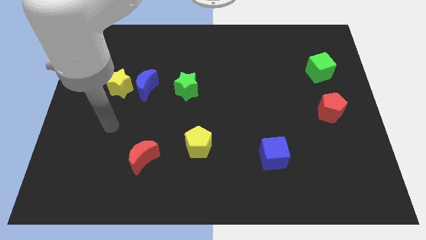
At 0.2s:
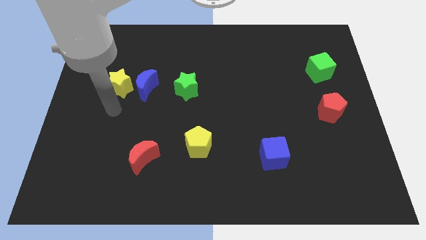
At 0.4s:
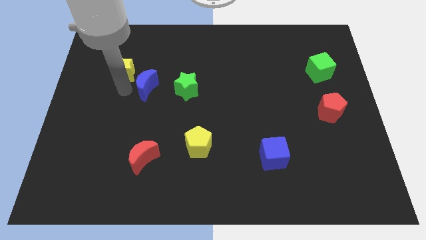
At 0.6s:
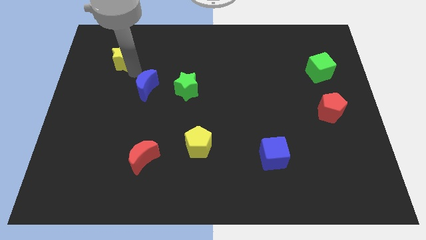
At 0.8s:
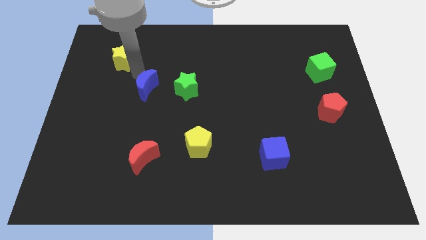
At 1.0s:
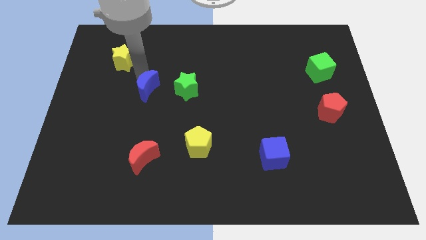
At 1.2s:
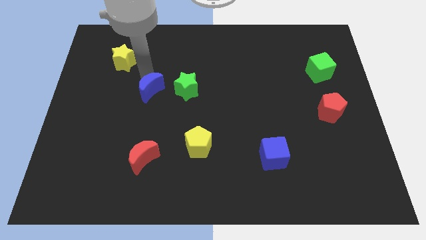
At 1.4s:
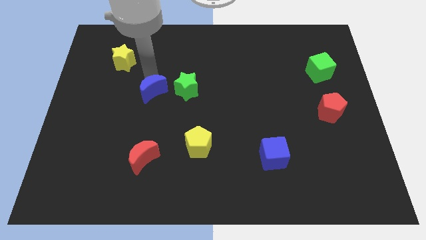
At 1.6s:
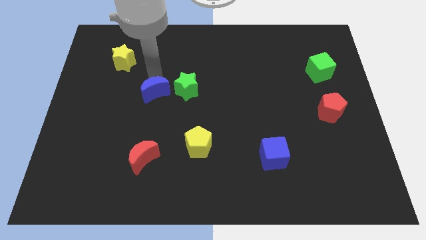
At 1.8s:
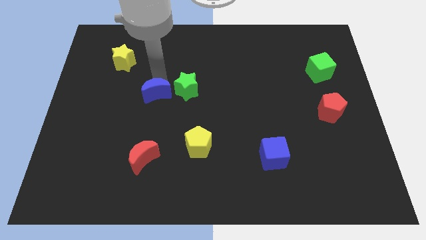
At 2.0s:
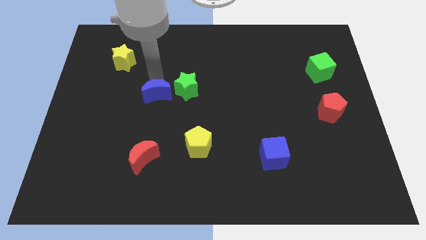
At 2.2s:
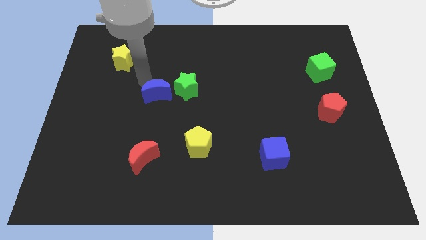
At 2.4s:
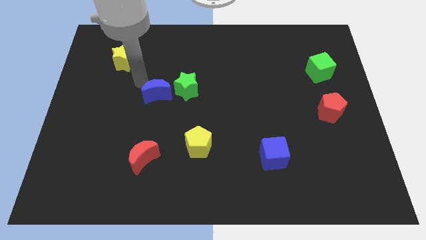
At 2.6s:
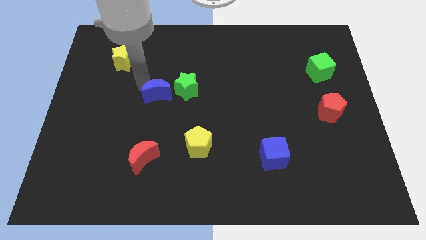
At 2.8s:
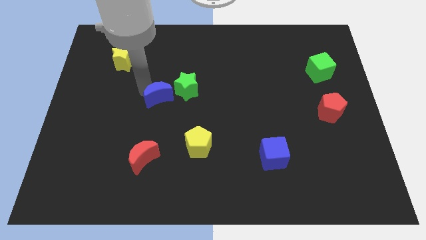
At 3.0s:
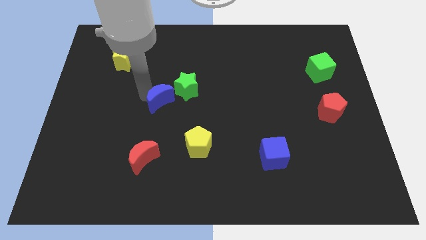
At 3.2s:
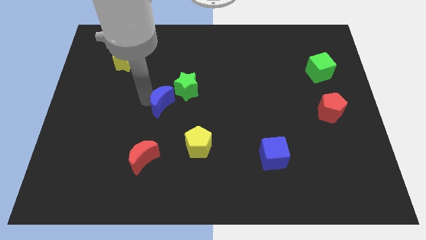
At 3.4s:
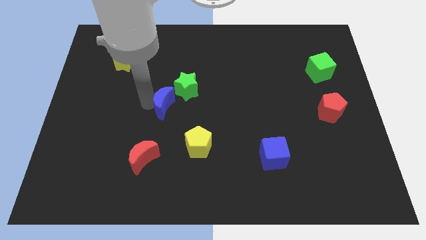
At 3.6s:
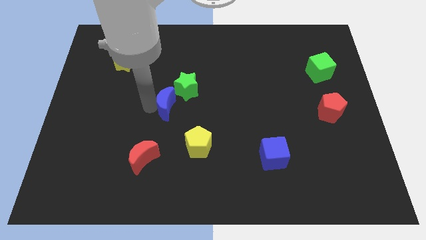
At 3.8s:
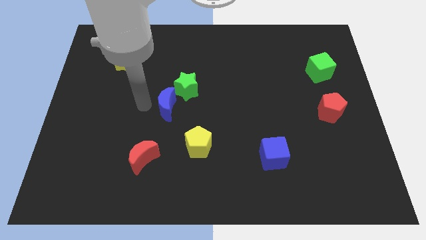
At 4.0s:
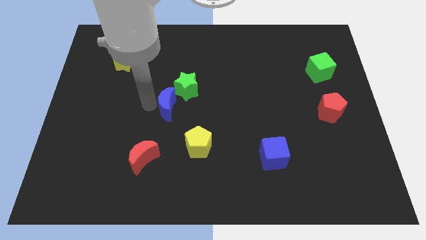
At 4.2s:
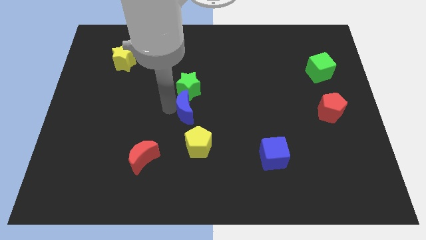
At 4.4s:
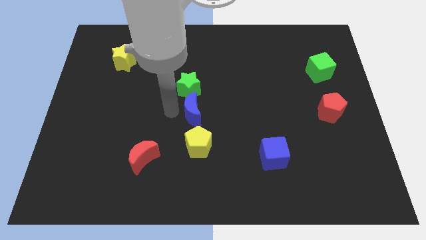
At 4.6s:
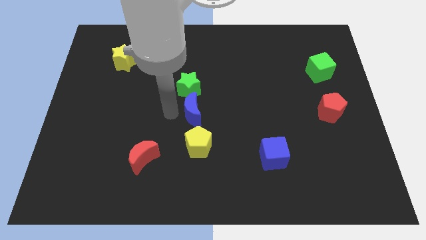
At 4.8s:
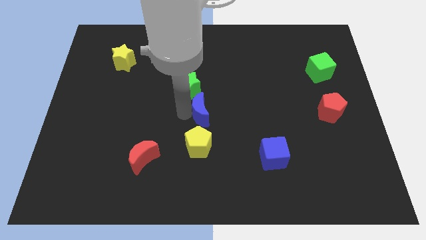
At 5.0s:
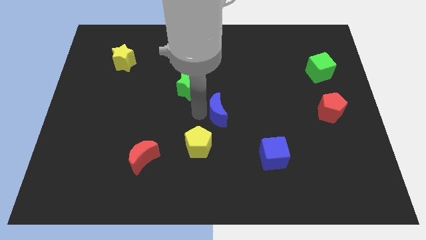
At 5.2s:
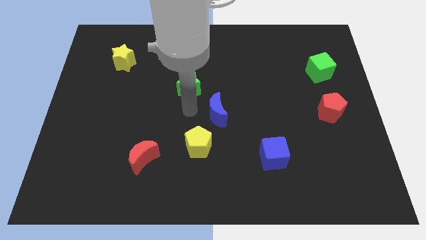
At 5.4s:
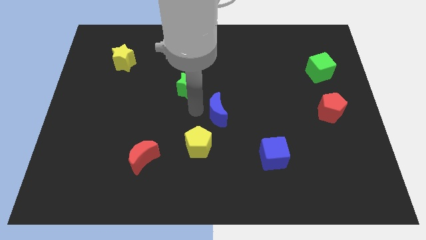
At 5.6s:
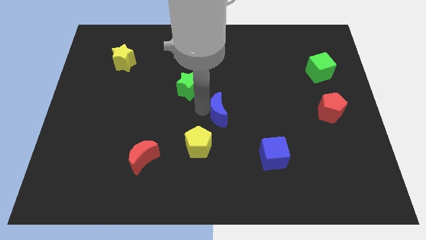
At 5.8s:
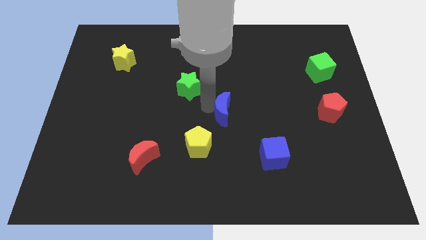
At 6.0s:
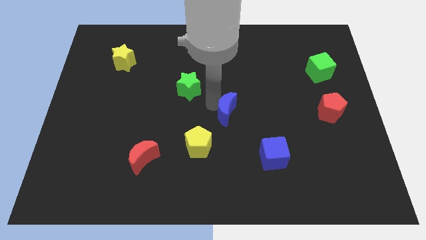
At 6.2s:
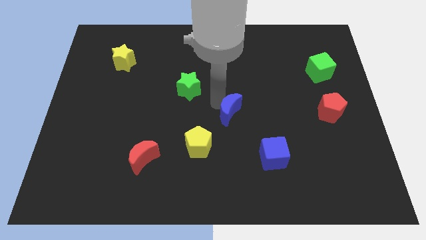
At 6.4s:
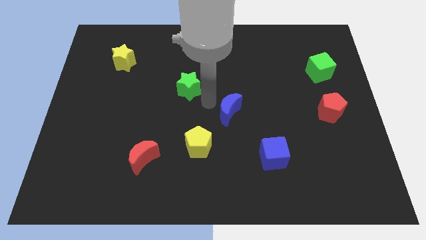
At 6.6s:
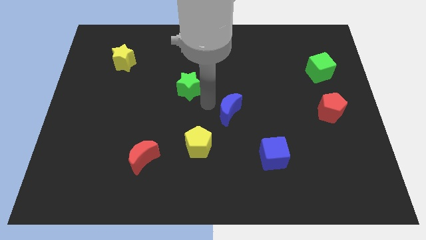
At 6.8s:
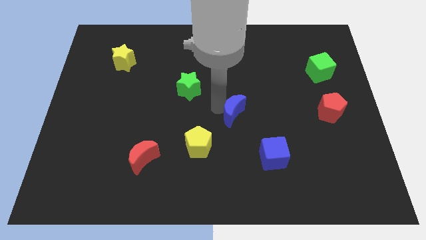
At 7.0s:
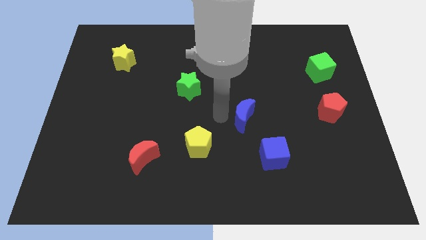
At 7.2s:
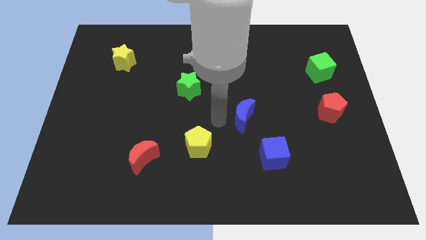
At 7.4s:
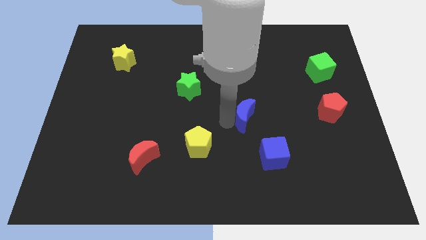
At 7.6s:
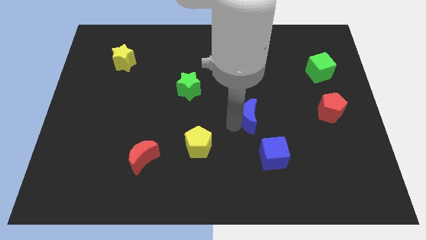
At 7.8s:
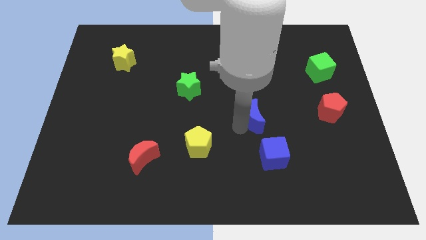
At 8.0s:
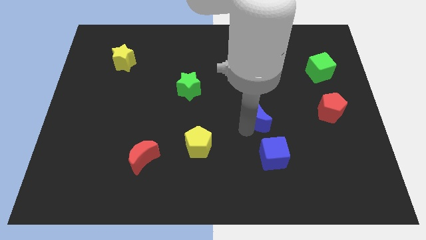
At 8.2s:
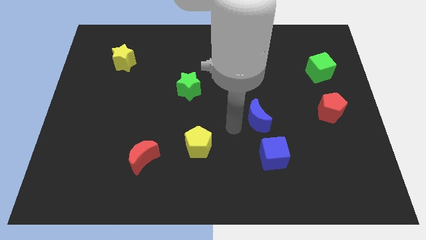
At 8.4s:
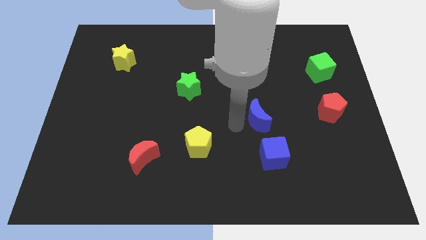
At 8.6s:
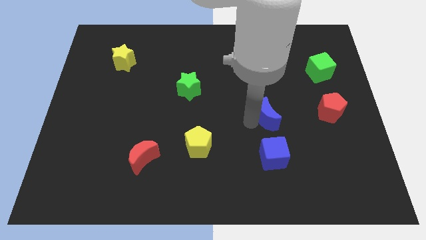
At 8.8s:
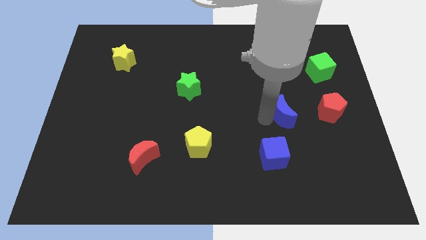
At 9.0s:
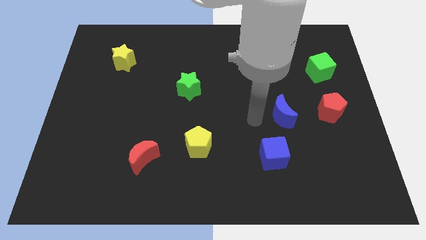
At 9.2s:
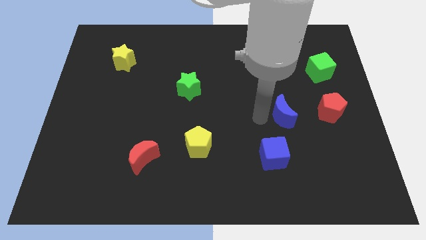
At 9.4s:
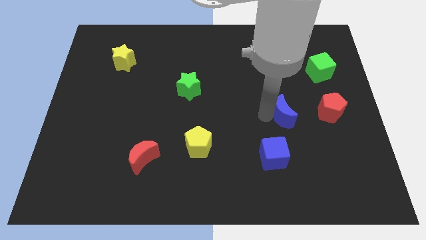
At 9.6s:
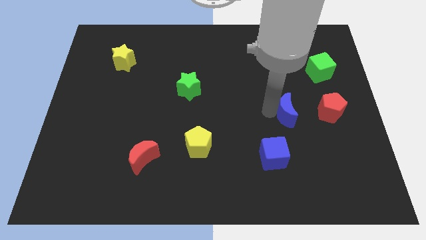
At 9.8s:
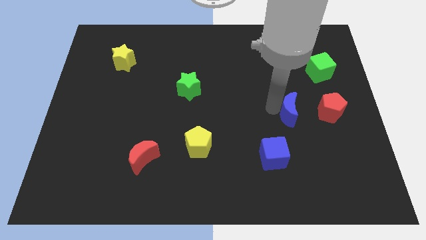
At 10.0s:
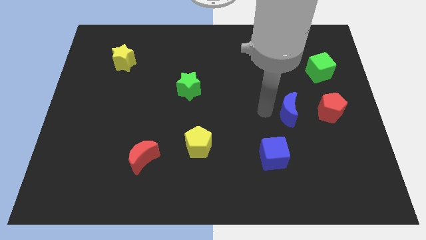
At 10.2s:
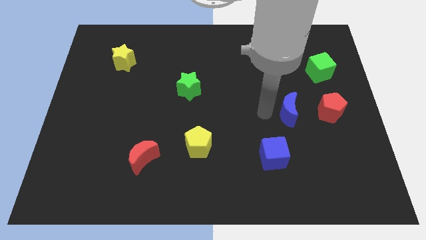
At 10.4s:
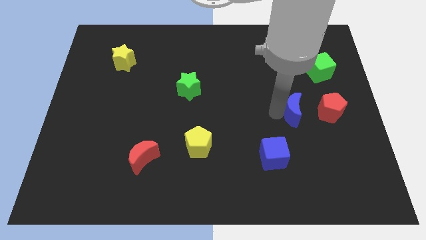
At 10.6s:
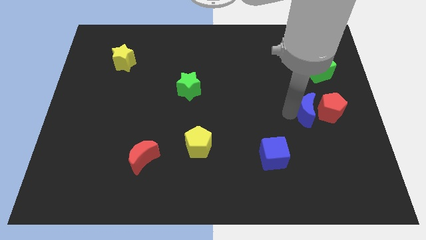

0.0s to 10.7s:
push the blue moon towards the red pentagon
